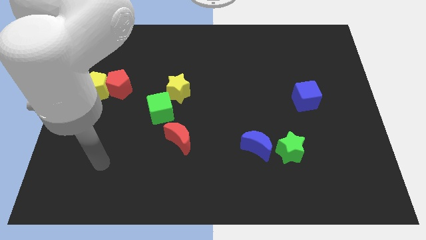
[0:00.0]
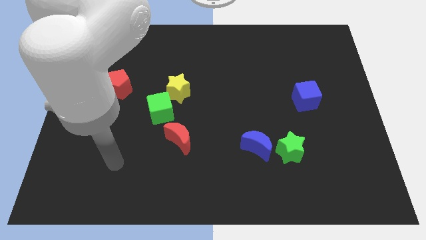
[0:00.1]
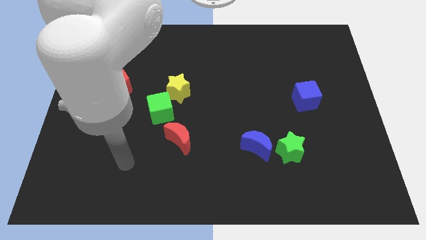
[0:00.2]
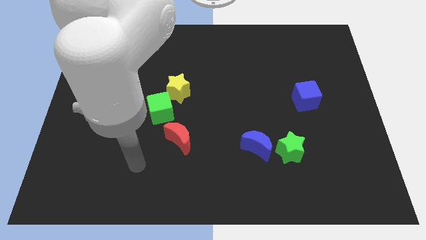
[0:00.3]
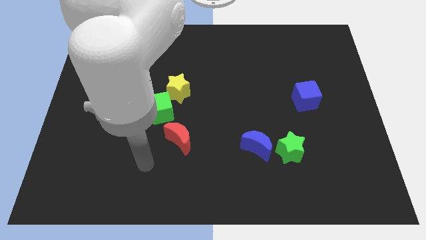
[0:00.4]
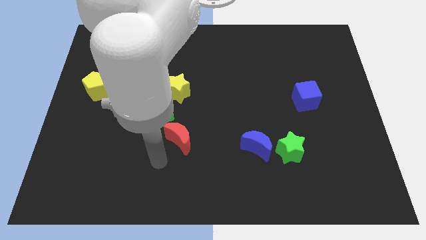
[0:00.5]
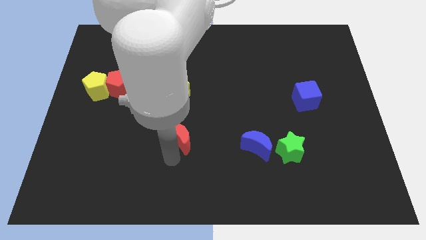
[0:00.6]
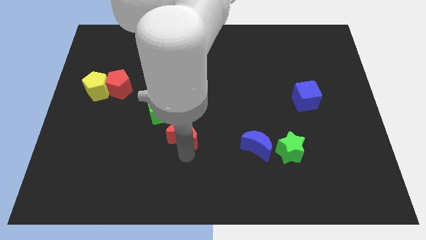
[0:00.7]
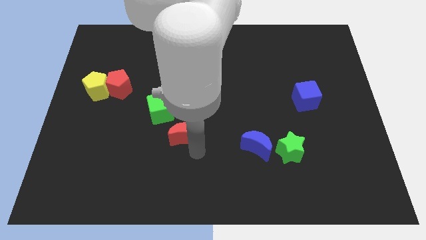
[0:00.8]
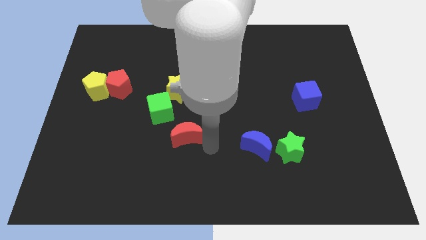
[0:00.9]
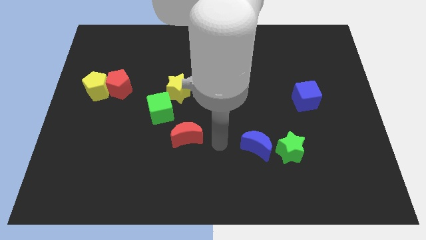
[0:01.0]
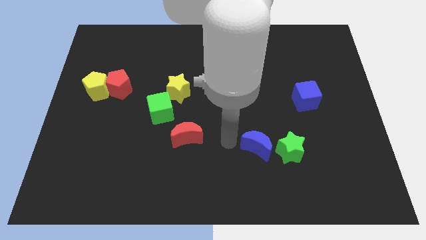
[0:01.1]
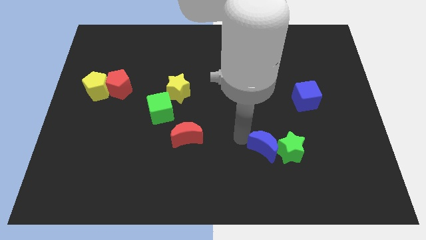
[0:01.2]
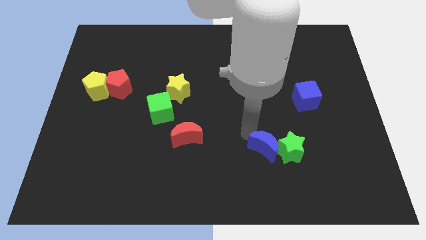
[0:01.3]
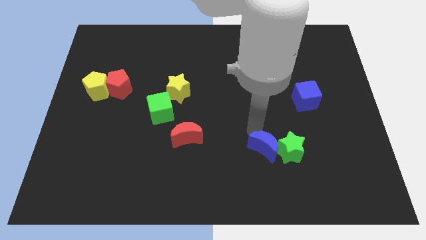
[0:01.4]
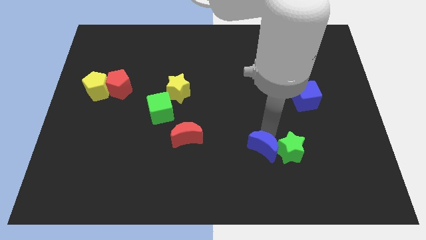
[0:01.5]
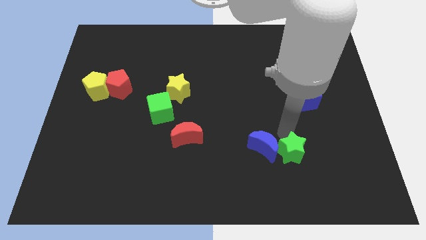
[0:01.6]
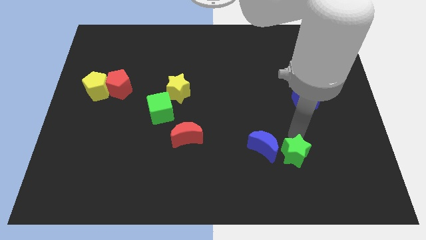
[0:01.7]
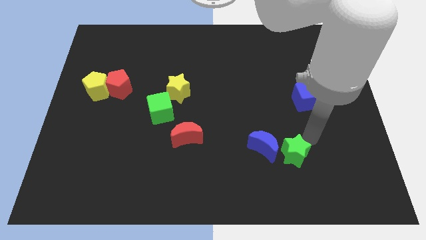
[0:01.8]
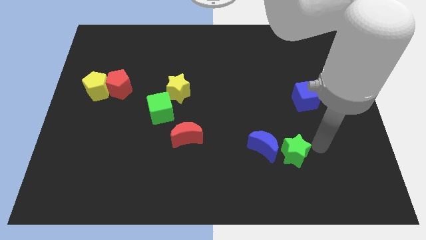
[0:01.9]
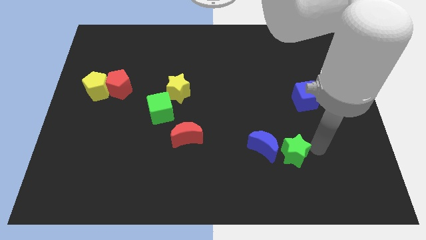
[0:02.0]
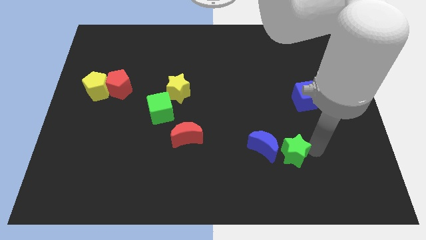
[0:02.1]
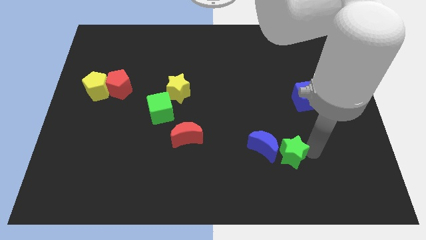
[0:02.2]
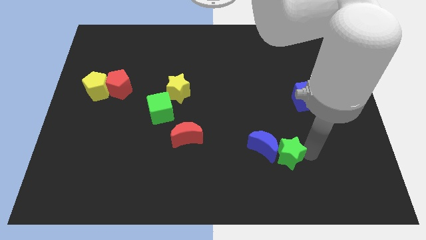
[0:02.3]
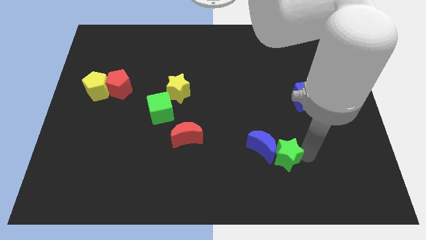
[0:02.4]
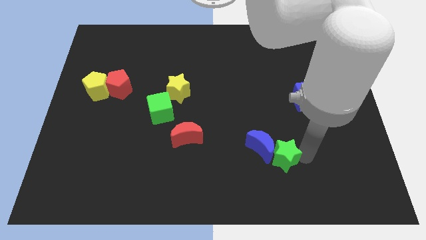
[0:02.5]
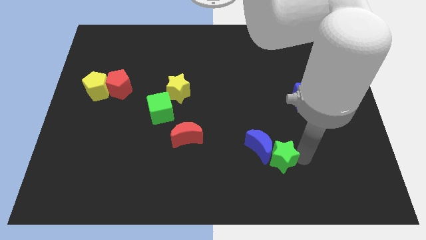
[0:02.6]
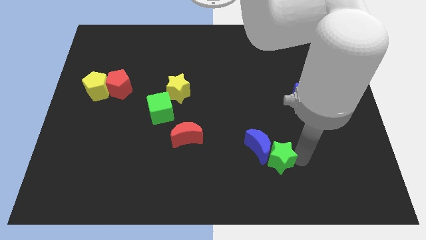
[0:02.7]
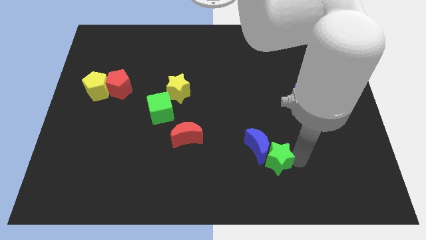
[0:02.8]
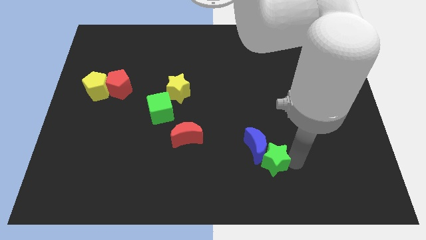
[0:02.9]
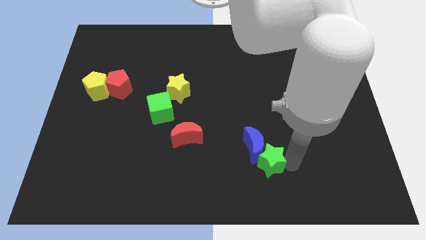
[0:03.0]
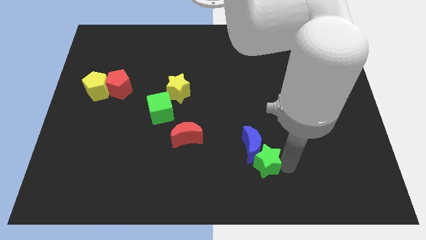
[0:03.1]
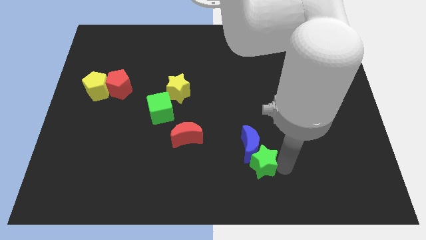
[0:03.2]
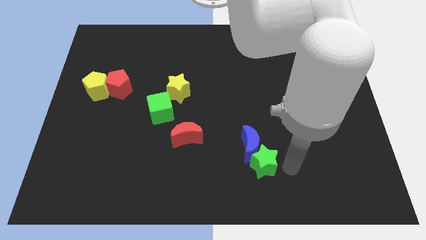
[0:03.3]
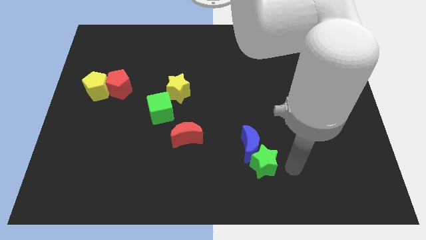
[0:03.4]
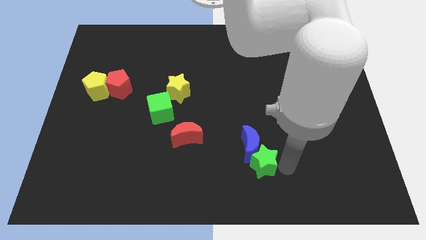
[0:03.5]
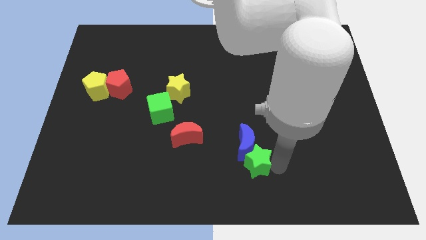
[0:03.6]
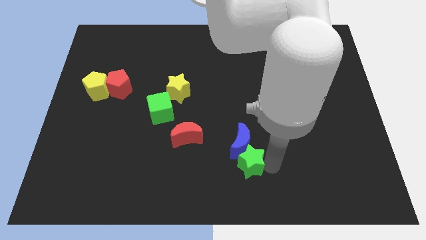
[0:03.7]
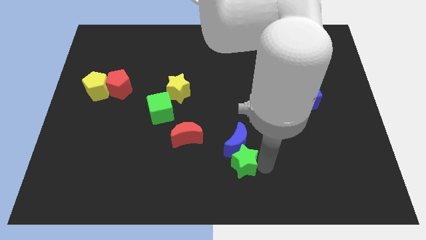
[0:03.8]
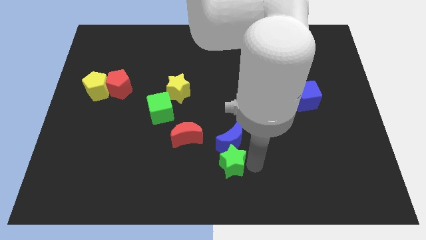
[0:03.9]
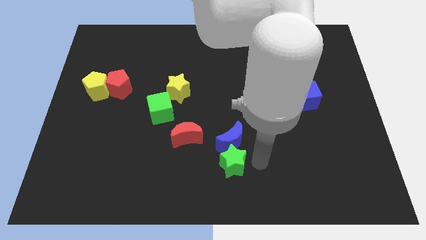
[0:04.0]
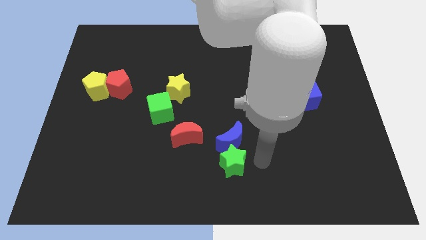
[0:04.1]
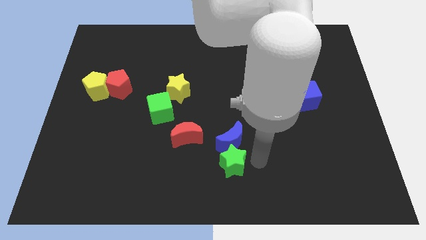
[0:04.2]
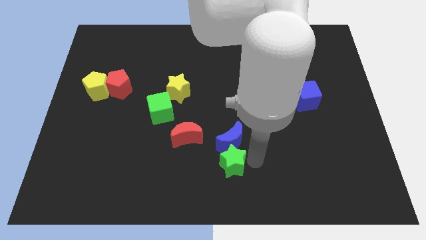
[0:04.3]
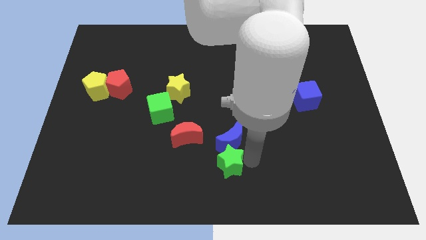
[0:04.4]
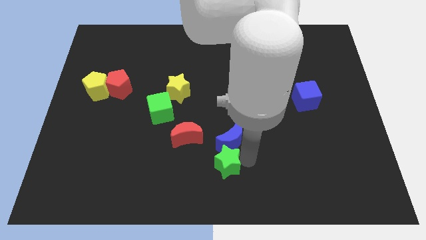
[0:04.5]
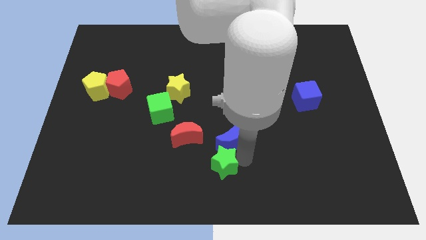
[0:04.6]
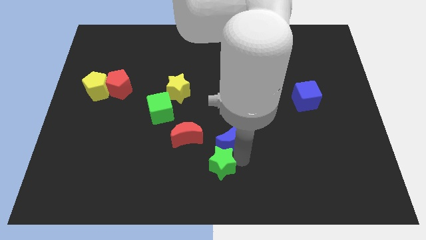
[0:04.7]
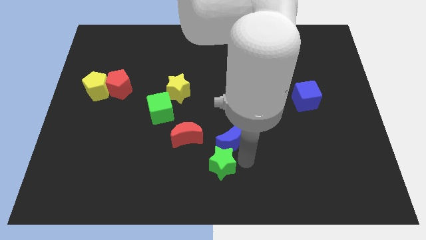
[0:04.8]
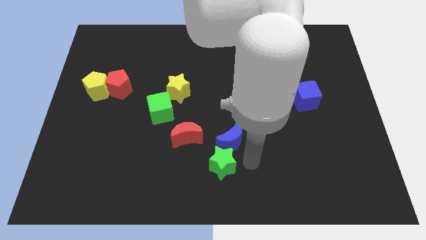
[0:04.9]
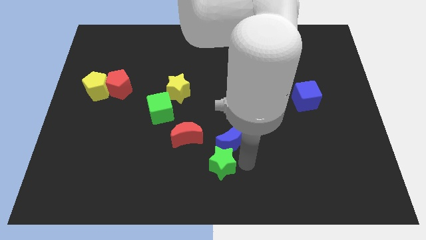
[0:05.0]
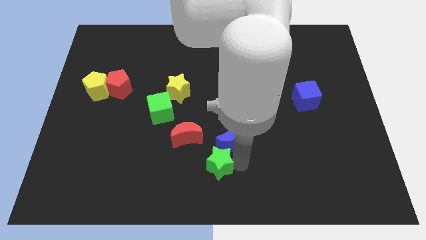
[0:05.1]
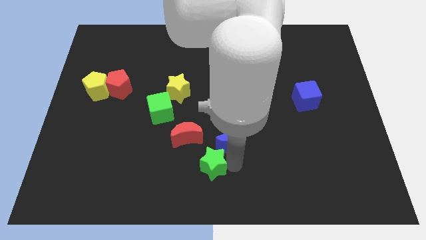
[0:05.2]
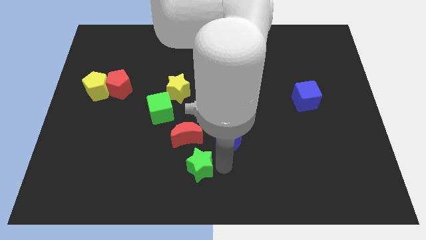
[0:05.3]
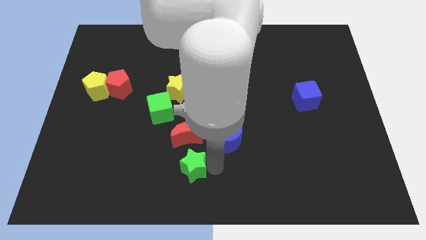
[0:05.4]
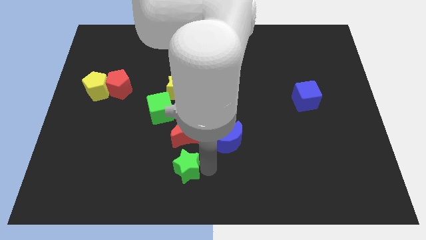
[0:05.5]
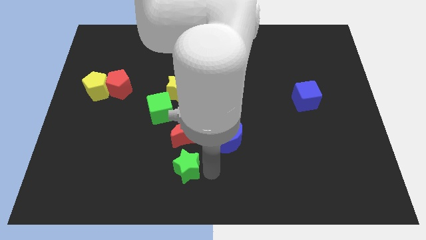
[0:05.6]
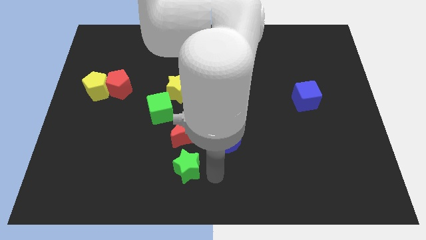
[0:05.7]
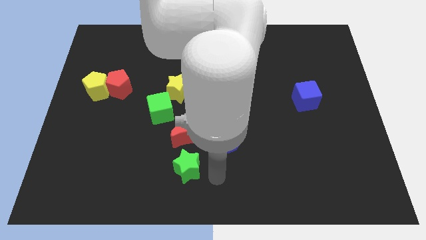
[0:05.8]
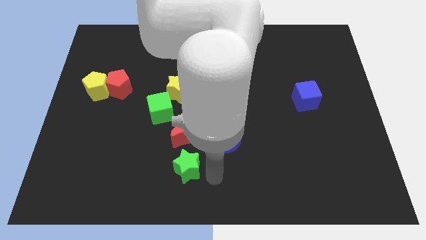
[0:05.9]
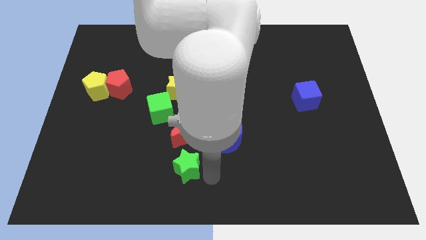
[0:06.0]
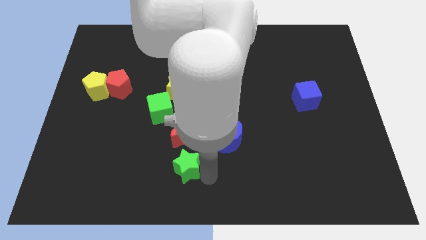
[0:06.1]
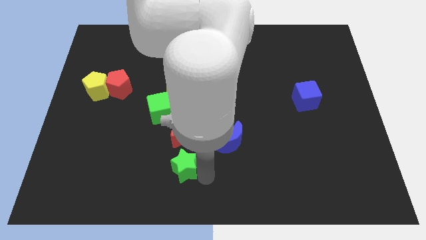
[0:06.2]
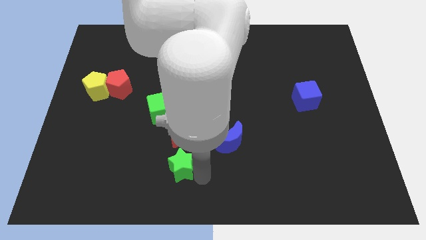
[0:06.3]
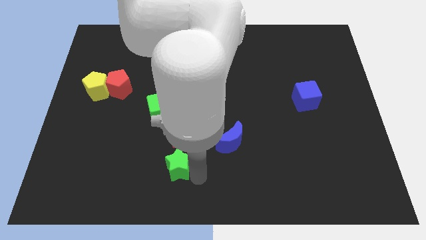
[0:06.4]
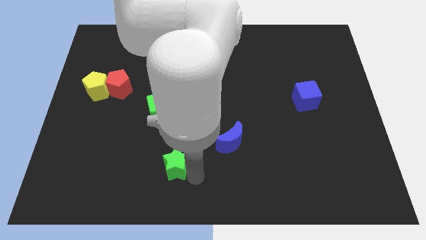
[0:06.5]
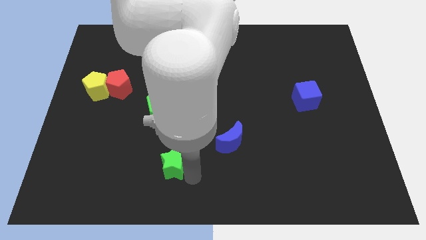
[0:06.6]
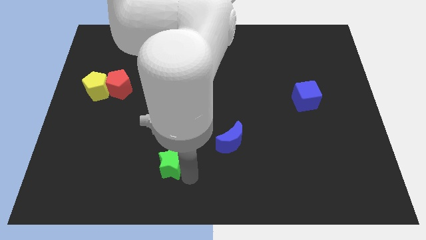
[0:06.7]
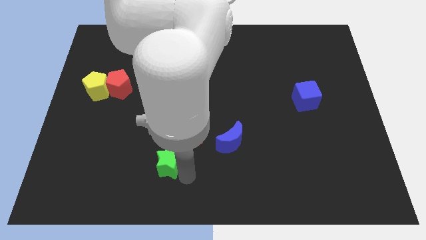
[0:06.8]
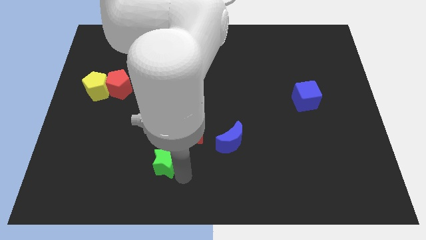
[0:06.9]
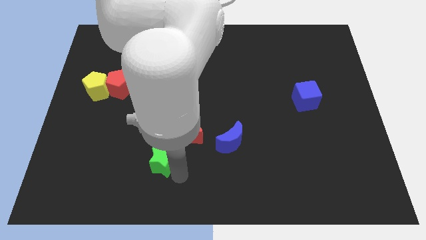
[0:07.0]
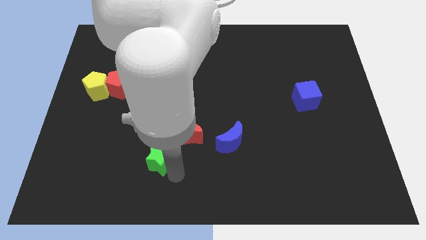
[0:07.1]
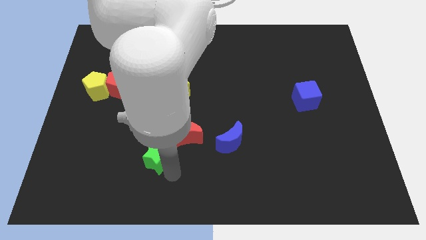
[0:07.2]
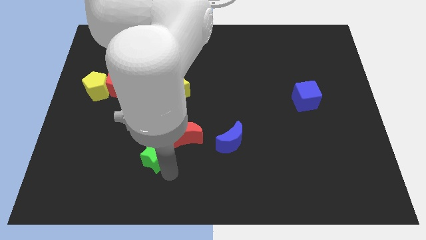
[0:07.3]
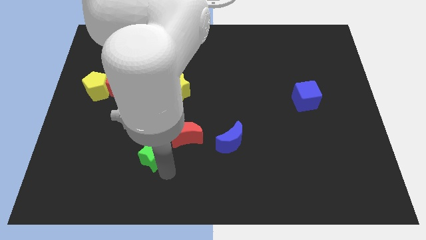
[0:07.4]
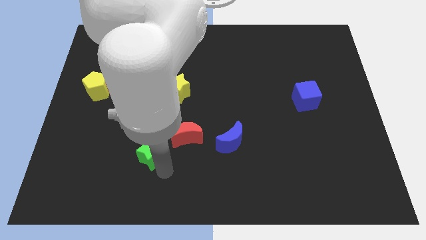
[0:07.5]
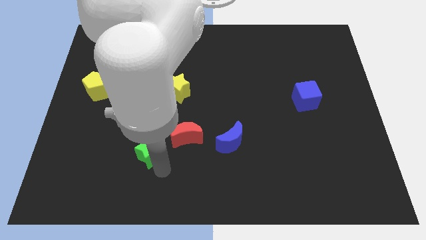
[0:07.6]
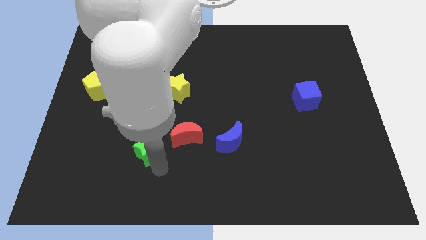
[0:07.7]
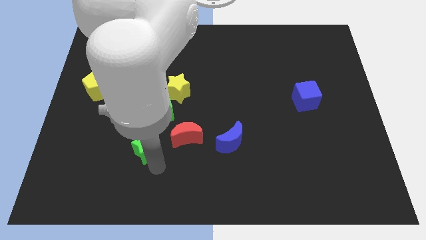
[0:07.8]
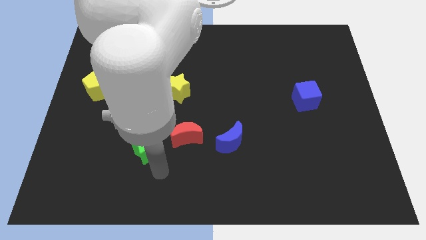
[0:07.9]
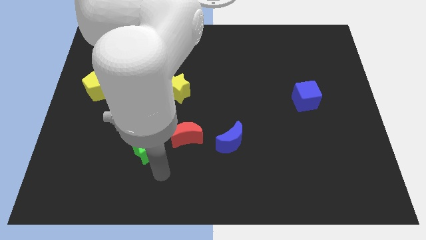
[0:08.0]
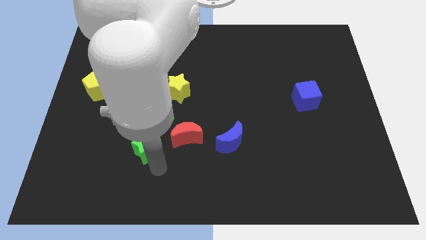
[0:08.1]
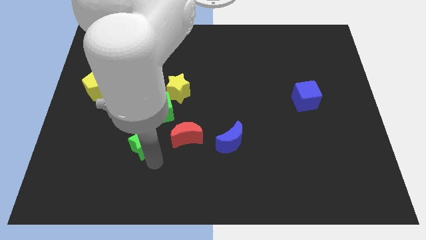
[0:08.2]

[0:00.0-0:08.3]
put the green star diagonally down and to the left of the green cube
